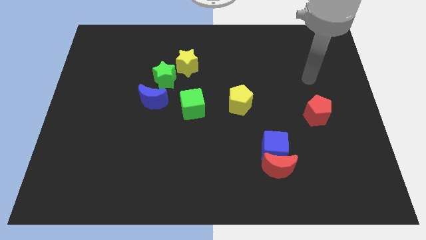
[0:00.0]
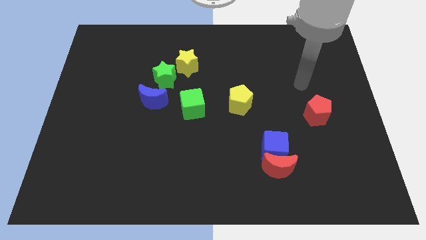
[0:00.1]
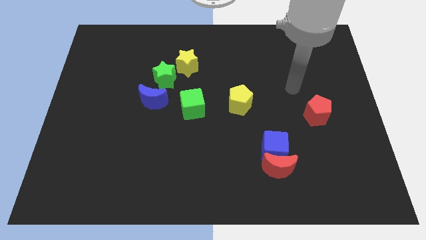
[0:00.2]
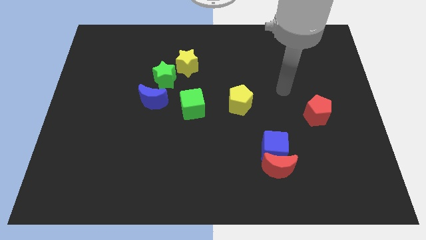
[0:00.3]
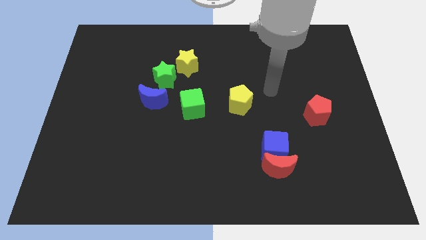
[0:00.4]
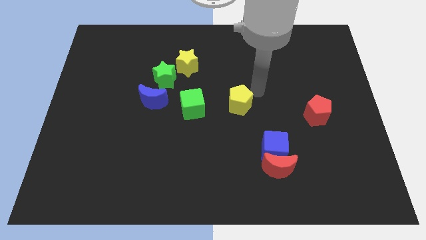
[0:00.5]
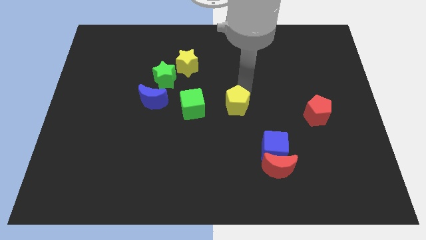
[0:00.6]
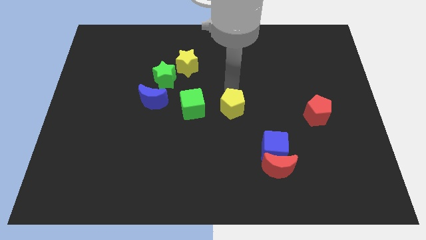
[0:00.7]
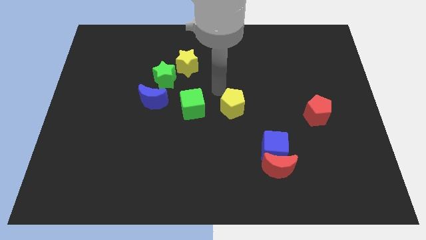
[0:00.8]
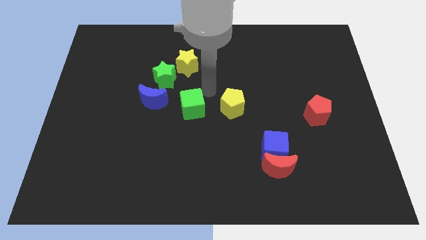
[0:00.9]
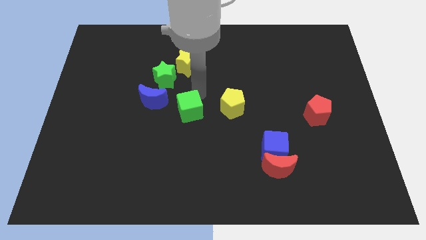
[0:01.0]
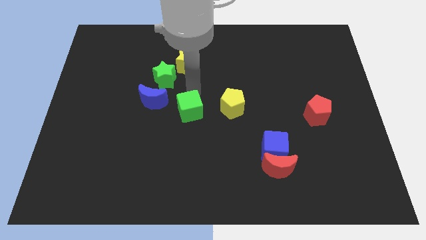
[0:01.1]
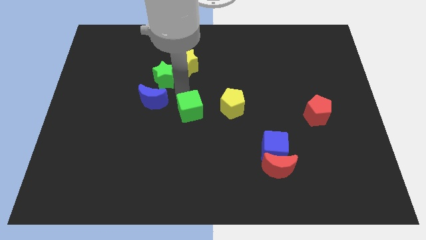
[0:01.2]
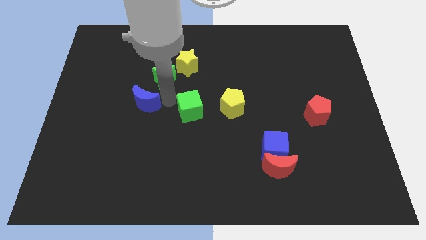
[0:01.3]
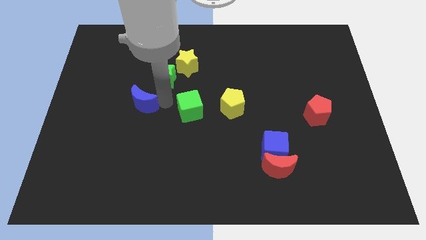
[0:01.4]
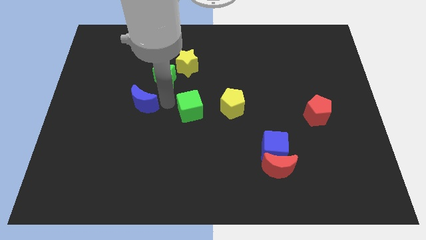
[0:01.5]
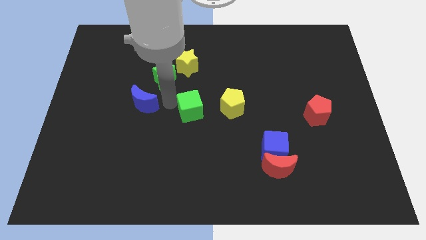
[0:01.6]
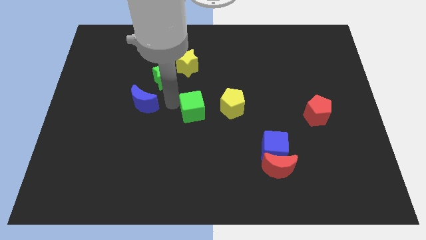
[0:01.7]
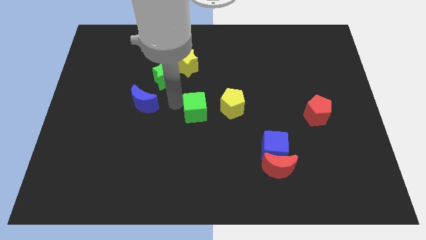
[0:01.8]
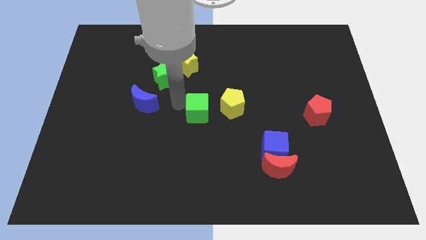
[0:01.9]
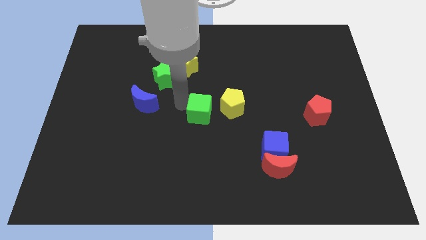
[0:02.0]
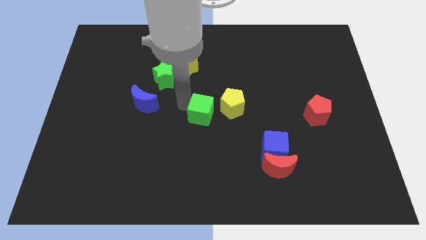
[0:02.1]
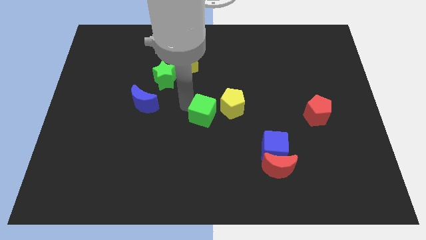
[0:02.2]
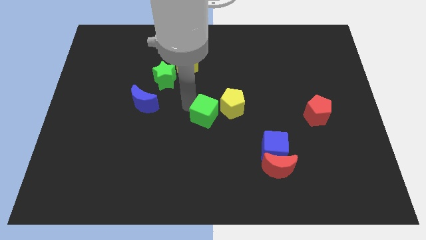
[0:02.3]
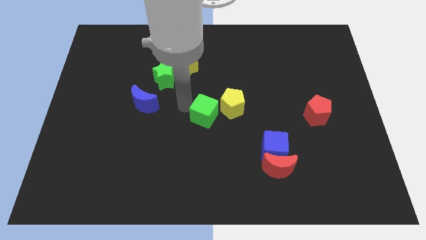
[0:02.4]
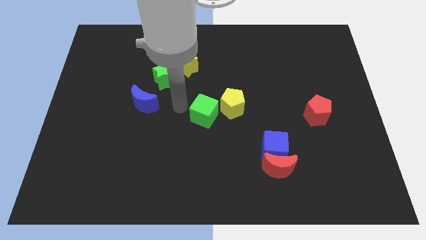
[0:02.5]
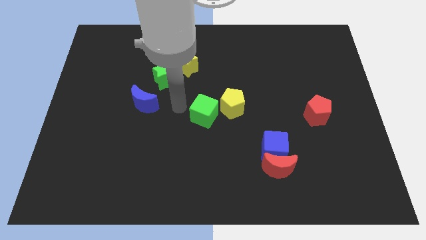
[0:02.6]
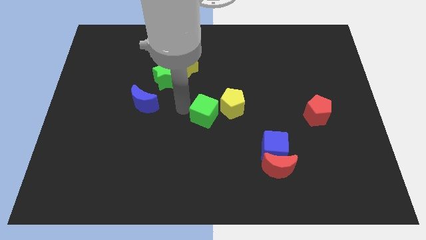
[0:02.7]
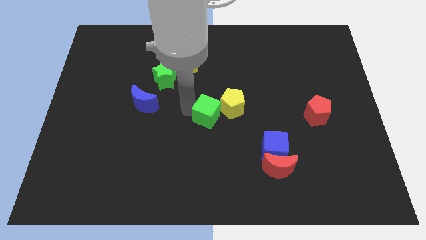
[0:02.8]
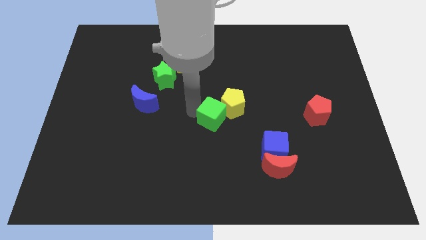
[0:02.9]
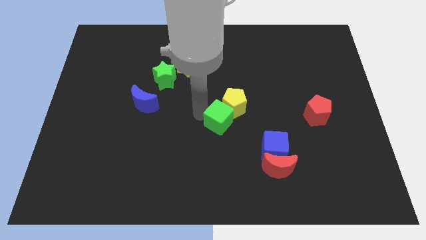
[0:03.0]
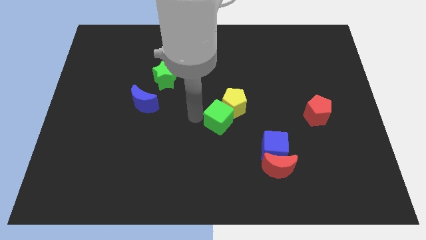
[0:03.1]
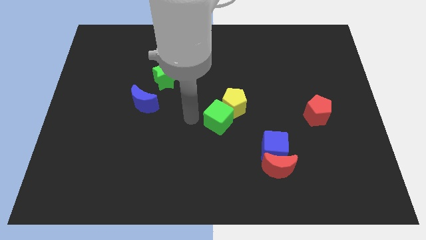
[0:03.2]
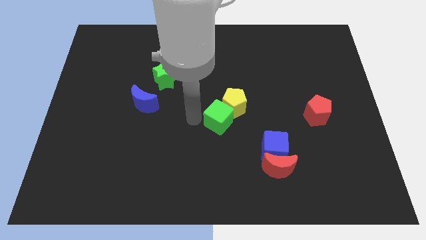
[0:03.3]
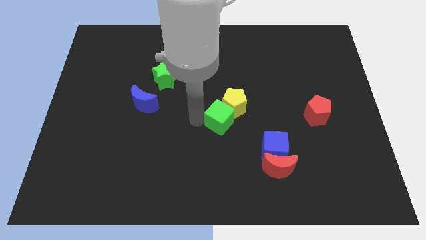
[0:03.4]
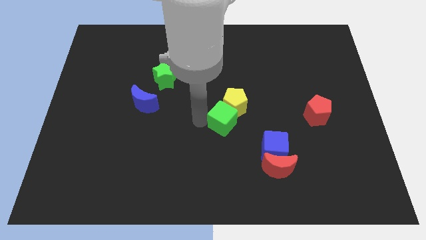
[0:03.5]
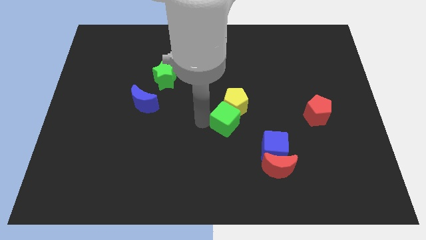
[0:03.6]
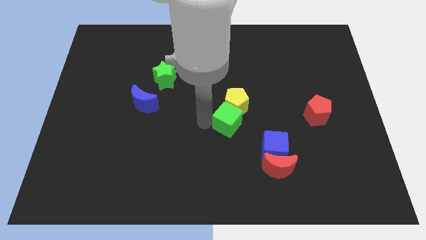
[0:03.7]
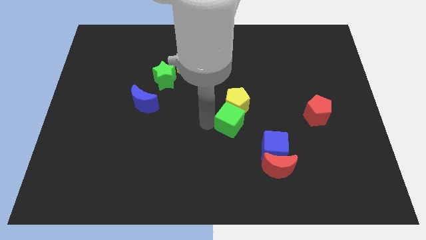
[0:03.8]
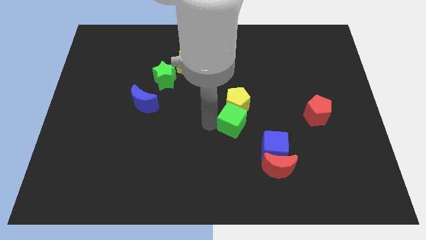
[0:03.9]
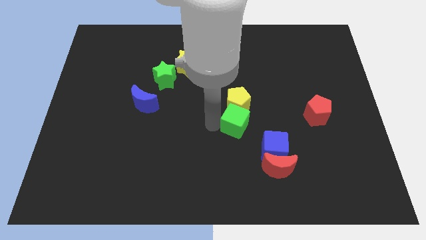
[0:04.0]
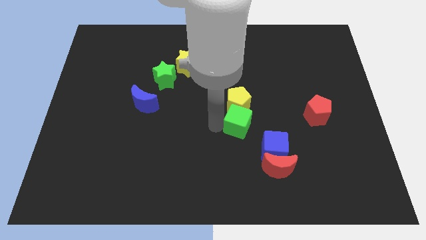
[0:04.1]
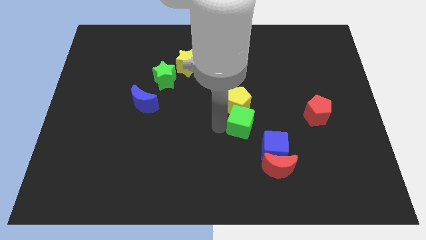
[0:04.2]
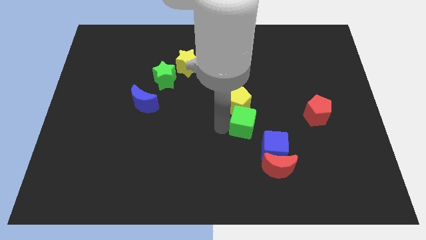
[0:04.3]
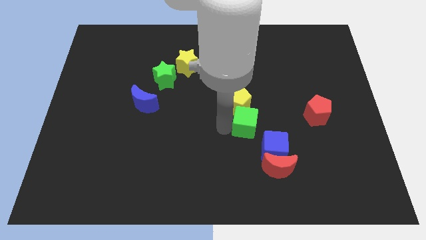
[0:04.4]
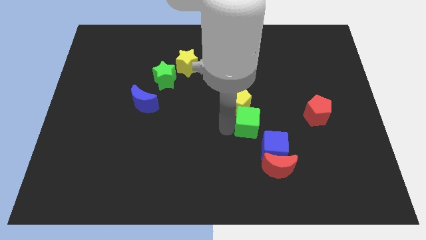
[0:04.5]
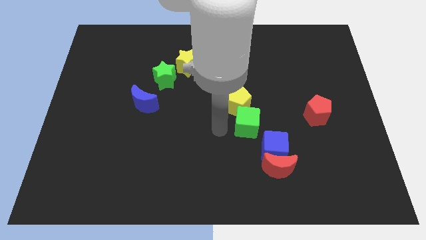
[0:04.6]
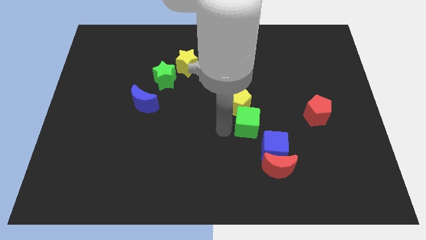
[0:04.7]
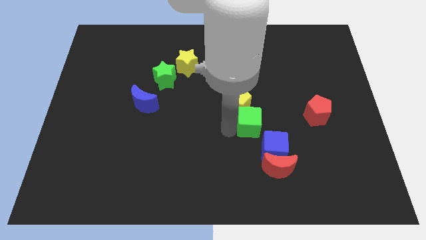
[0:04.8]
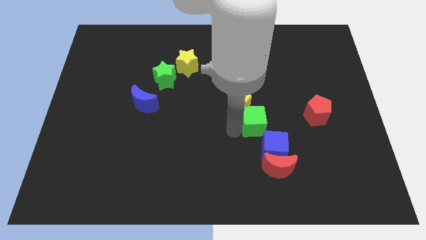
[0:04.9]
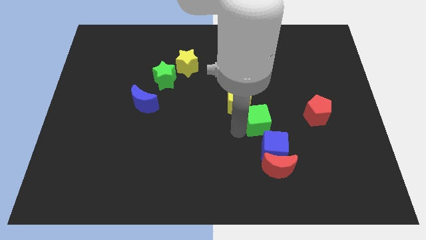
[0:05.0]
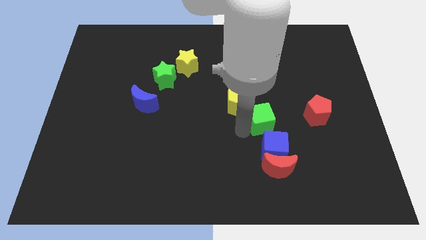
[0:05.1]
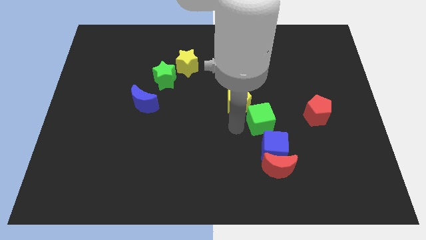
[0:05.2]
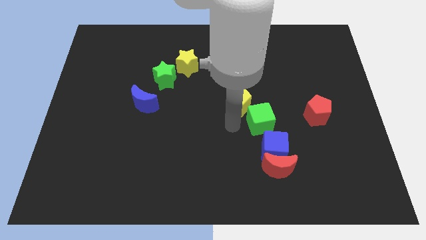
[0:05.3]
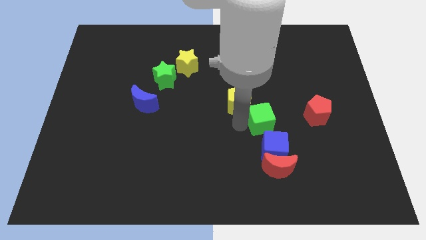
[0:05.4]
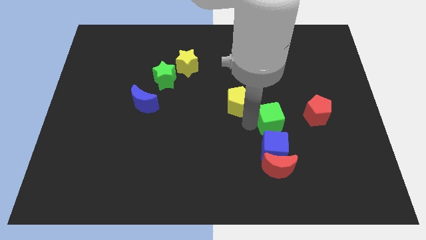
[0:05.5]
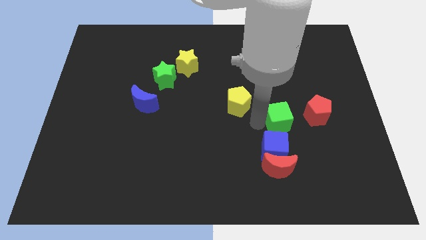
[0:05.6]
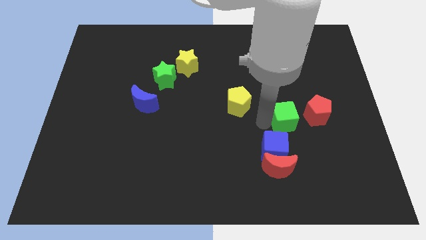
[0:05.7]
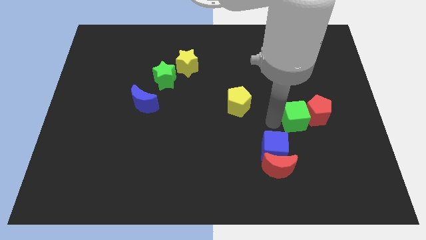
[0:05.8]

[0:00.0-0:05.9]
put the green cube close to the red pentagon

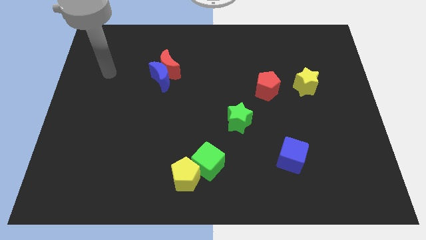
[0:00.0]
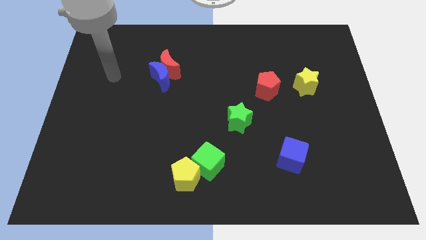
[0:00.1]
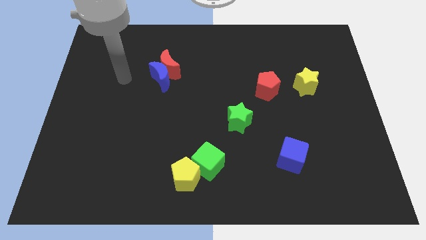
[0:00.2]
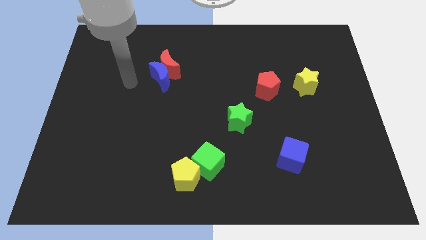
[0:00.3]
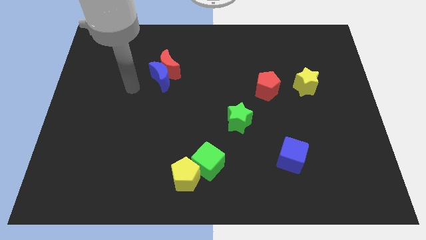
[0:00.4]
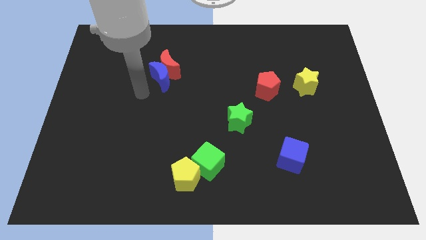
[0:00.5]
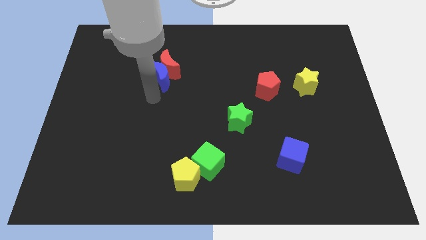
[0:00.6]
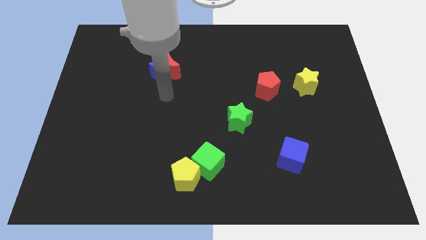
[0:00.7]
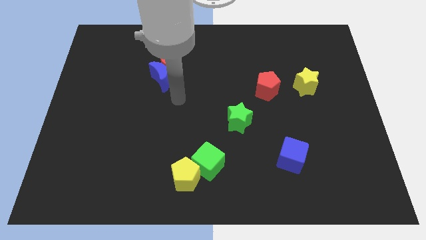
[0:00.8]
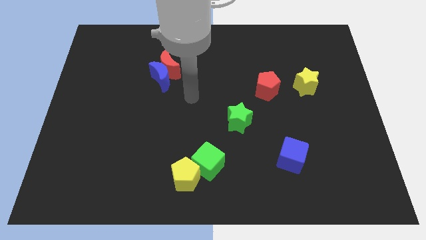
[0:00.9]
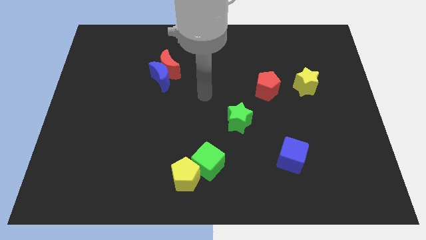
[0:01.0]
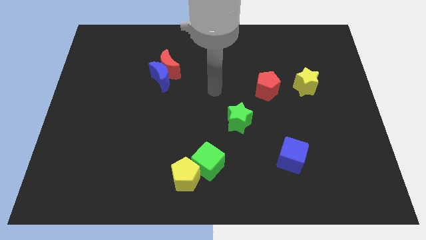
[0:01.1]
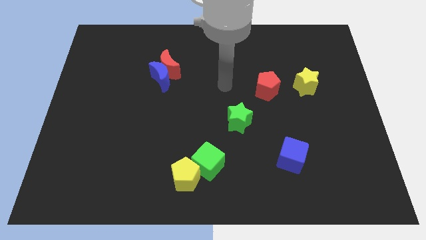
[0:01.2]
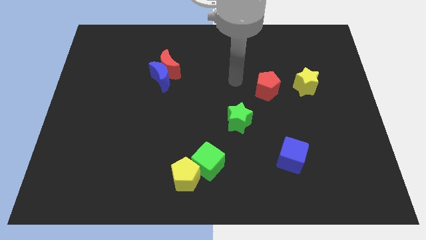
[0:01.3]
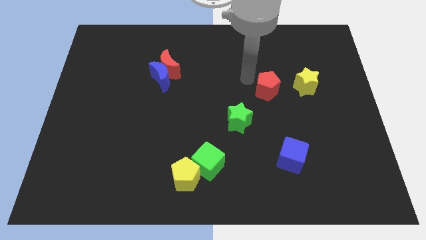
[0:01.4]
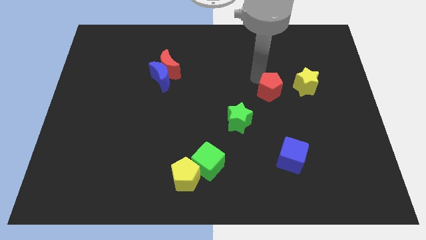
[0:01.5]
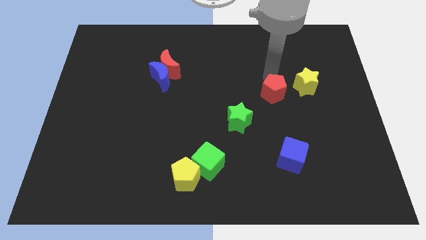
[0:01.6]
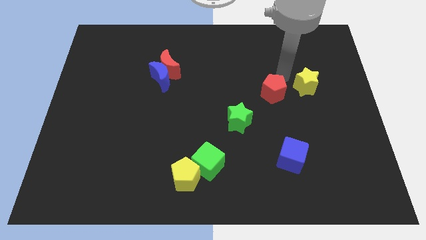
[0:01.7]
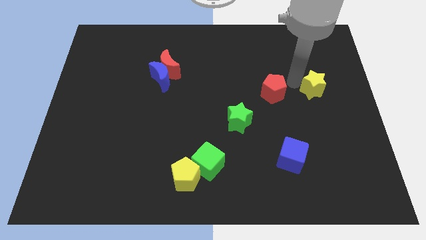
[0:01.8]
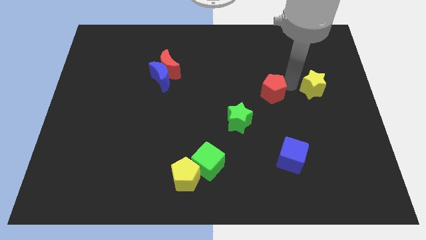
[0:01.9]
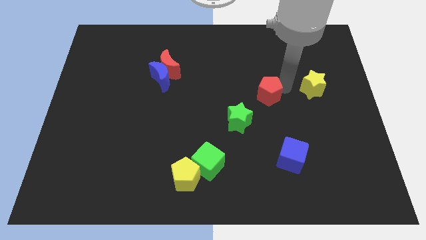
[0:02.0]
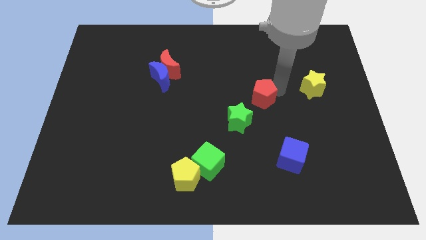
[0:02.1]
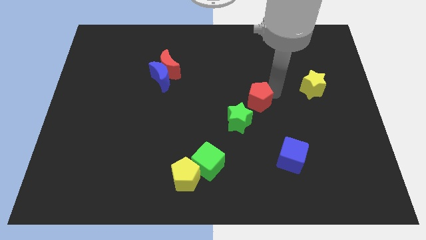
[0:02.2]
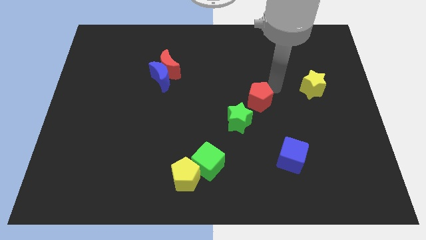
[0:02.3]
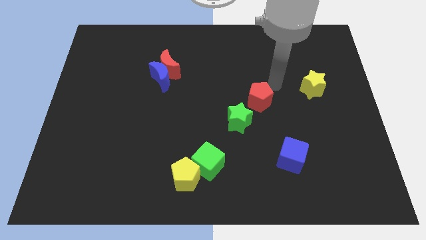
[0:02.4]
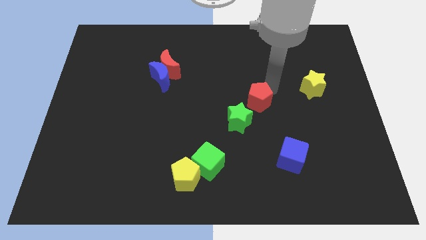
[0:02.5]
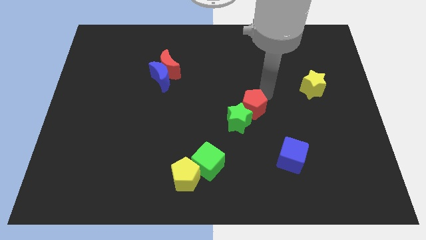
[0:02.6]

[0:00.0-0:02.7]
move the red pentagon close to the green star
